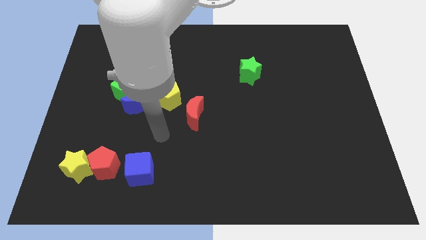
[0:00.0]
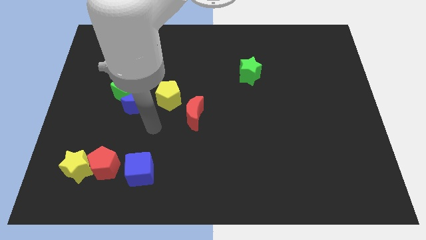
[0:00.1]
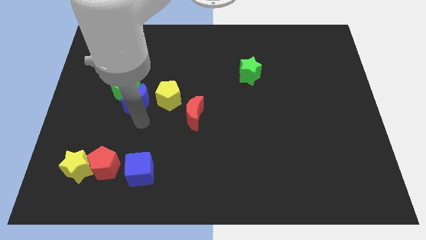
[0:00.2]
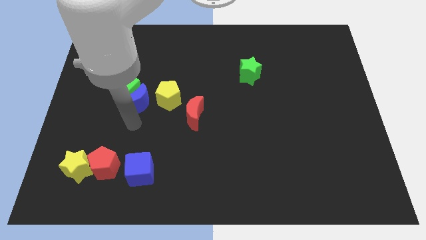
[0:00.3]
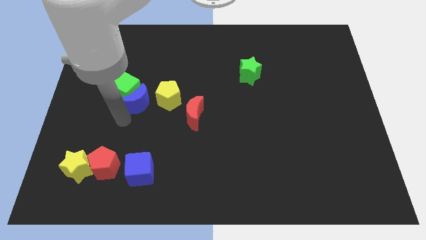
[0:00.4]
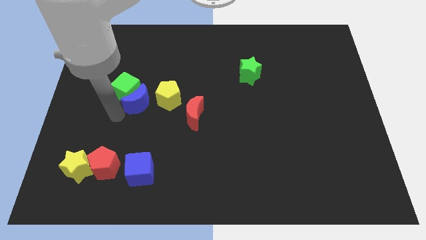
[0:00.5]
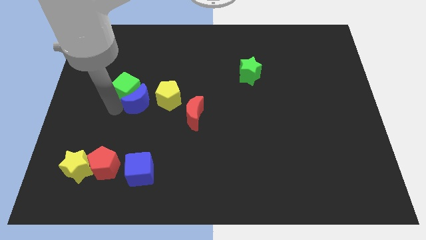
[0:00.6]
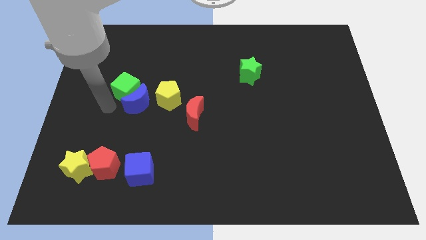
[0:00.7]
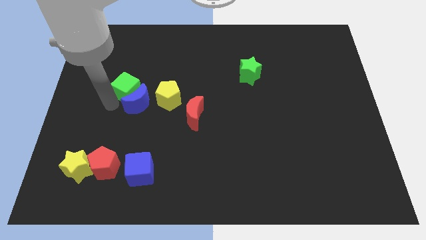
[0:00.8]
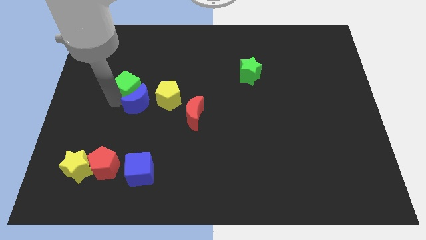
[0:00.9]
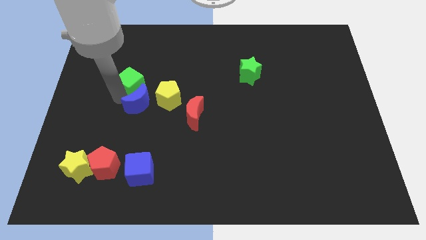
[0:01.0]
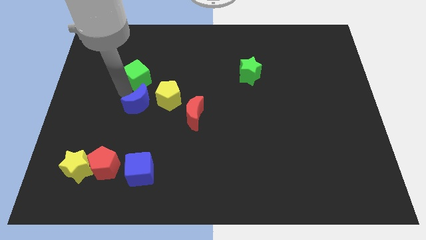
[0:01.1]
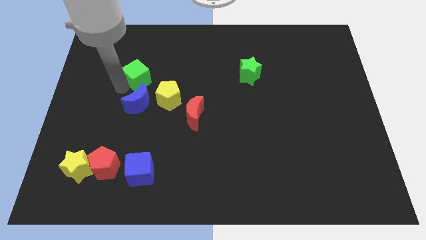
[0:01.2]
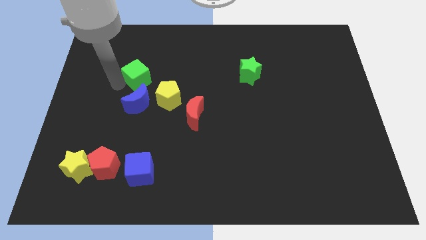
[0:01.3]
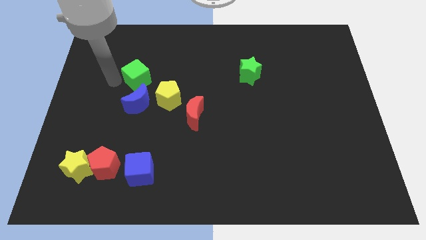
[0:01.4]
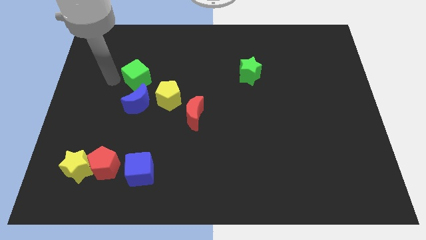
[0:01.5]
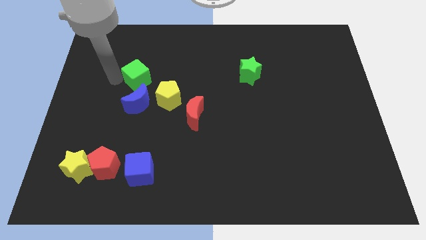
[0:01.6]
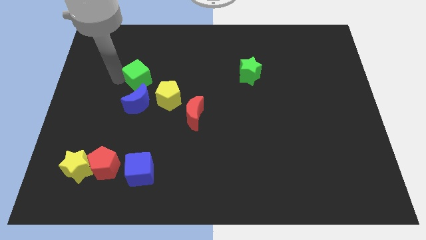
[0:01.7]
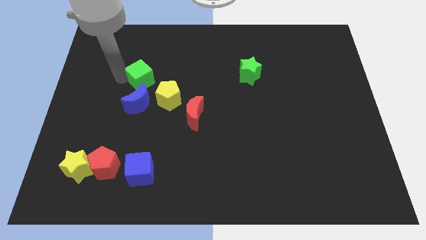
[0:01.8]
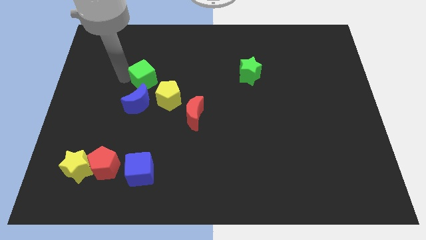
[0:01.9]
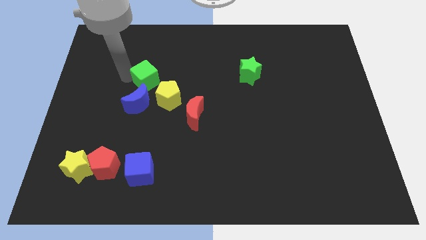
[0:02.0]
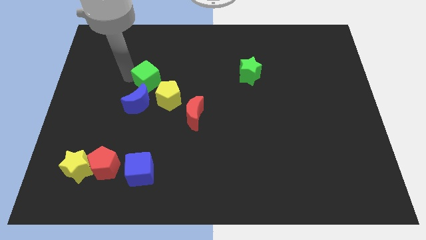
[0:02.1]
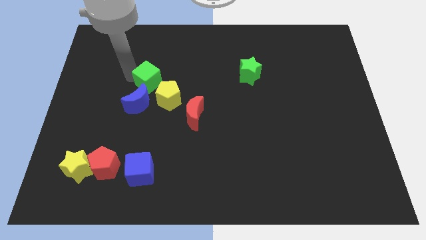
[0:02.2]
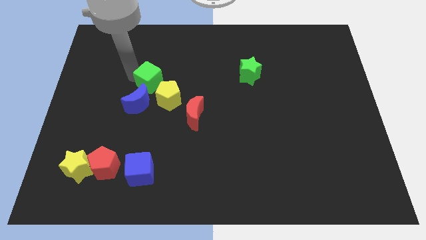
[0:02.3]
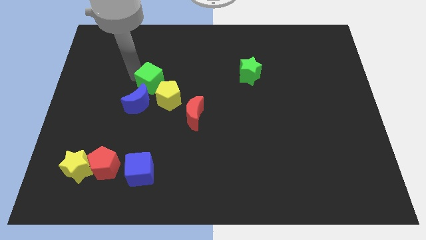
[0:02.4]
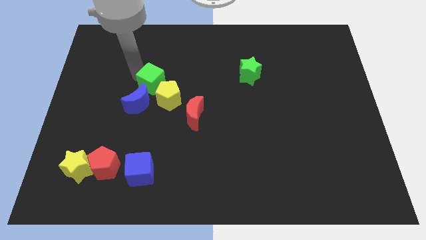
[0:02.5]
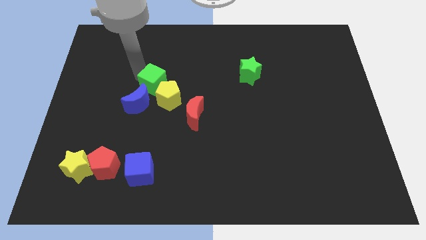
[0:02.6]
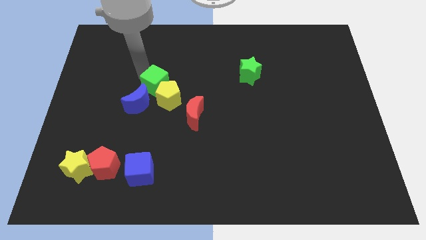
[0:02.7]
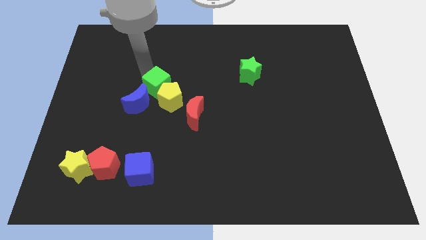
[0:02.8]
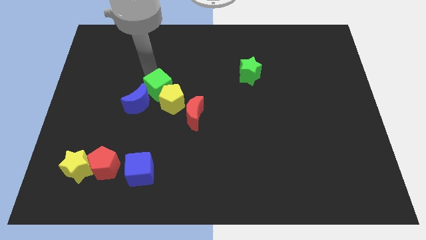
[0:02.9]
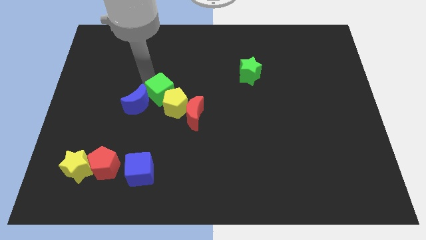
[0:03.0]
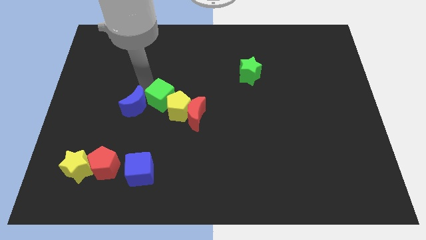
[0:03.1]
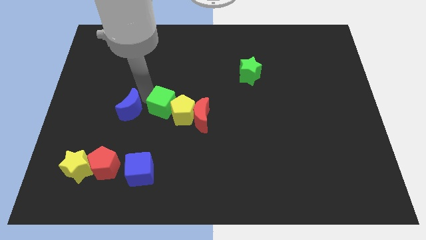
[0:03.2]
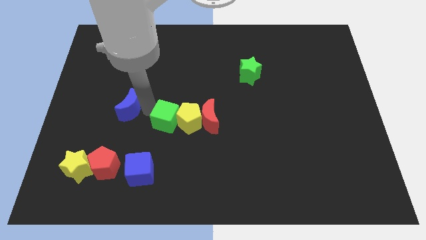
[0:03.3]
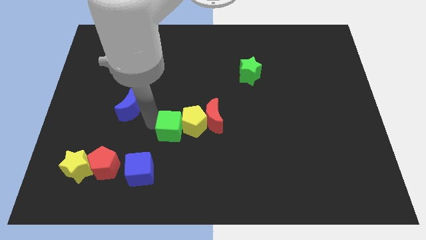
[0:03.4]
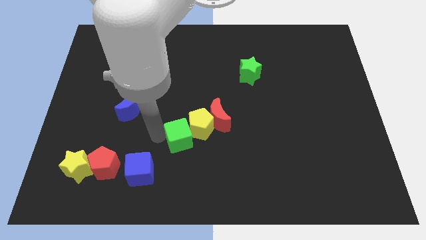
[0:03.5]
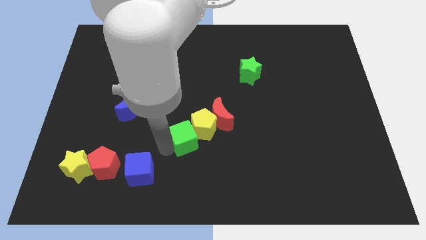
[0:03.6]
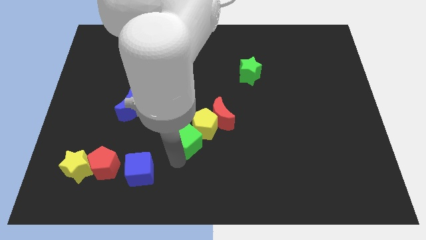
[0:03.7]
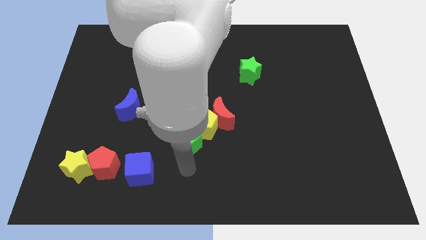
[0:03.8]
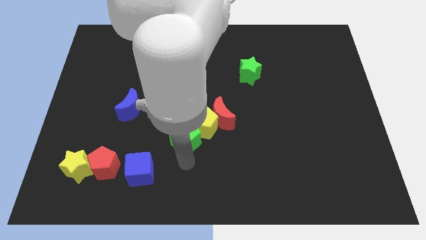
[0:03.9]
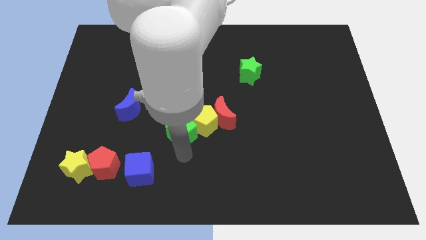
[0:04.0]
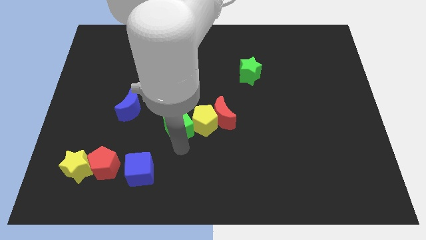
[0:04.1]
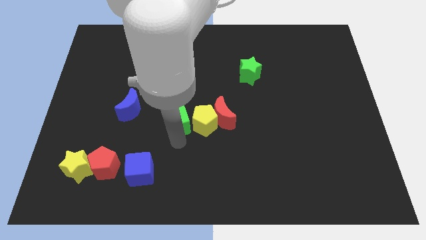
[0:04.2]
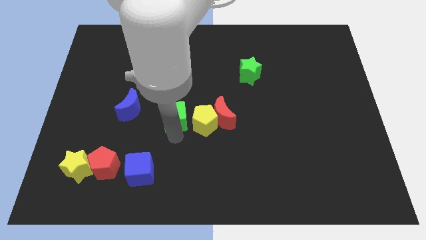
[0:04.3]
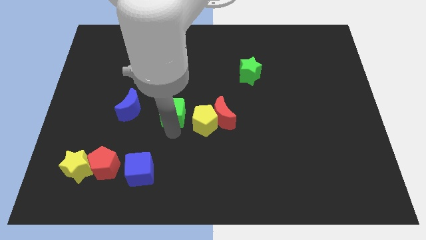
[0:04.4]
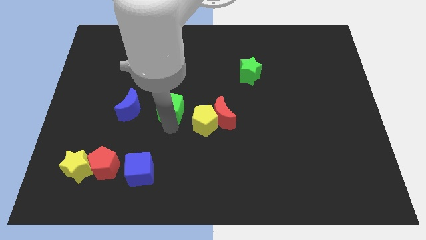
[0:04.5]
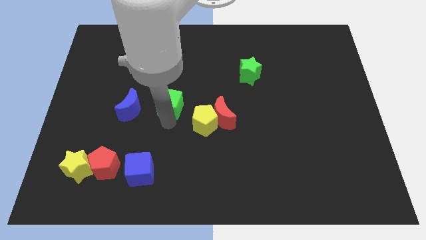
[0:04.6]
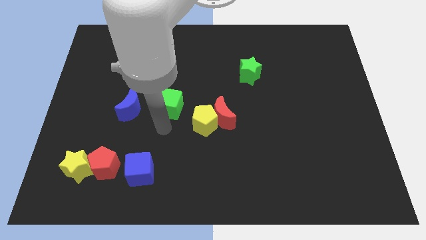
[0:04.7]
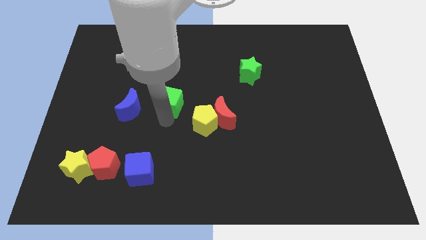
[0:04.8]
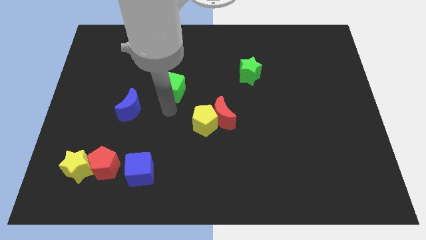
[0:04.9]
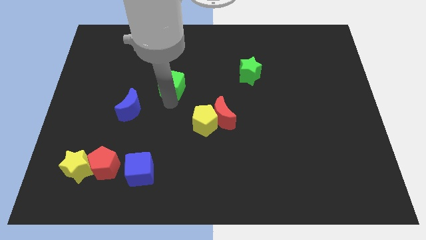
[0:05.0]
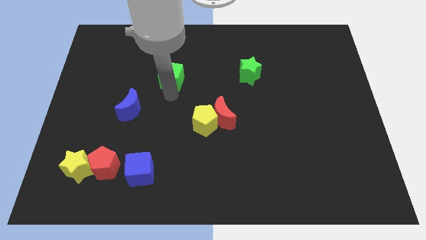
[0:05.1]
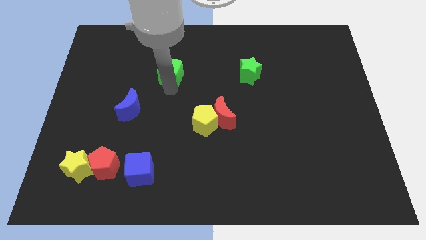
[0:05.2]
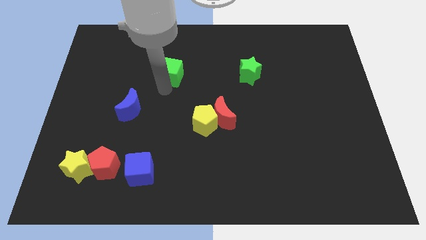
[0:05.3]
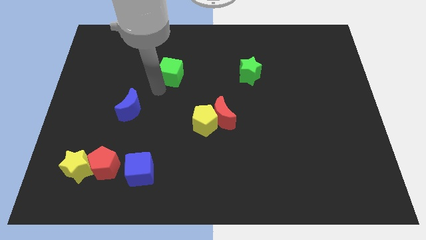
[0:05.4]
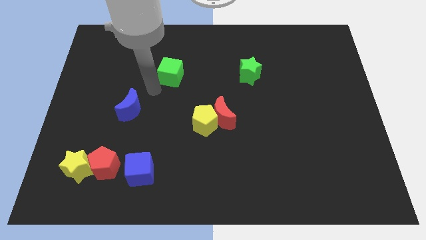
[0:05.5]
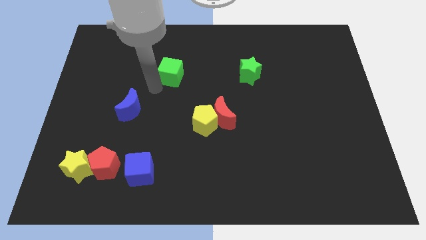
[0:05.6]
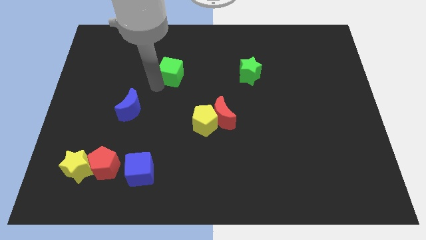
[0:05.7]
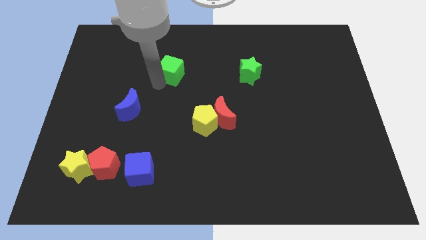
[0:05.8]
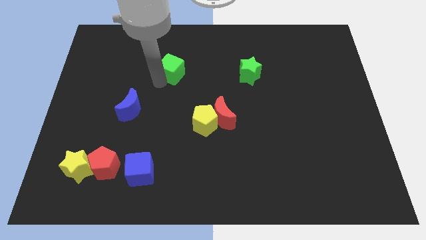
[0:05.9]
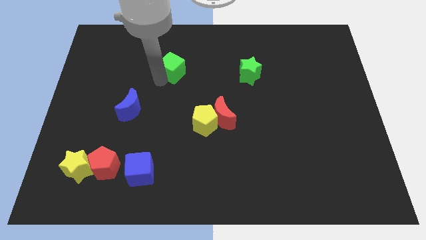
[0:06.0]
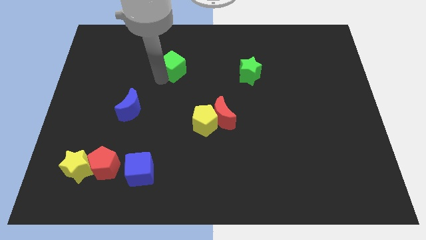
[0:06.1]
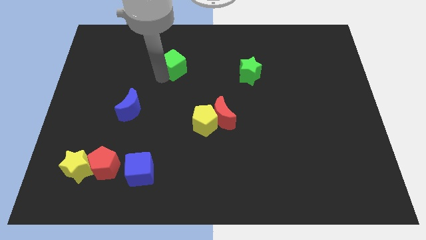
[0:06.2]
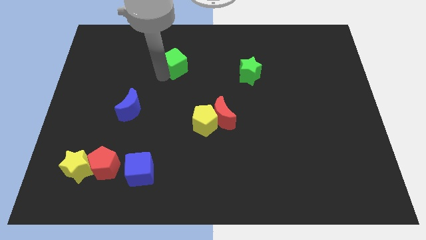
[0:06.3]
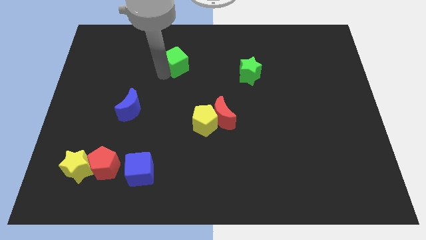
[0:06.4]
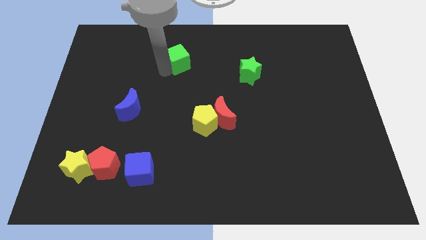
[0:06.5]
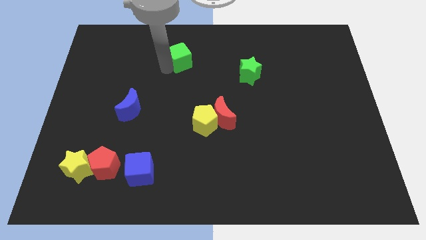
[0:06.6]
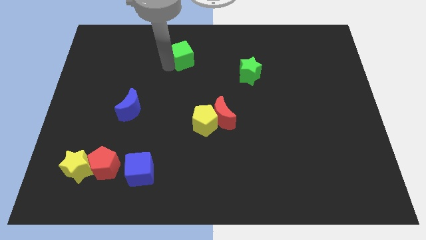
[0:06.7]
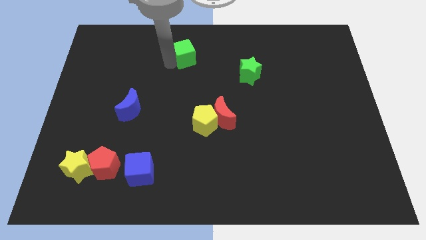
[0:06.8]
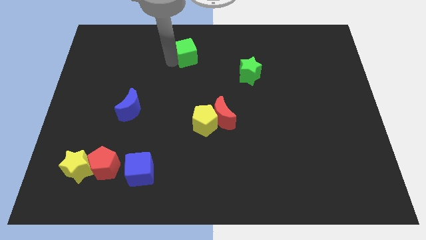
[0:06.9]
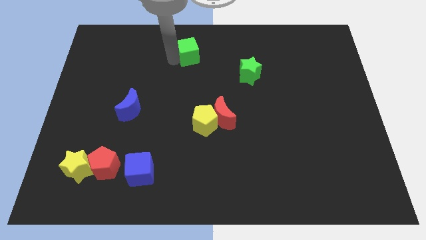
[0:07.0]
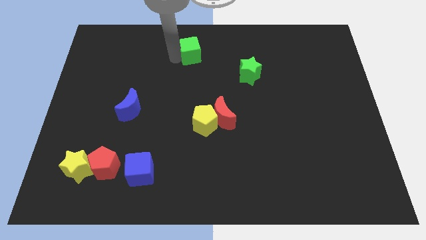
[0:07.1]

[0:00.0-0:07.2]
put the green cube to the top side
